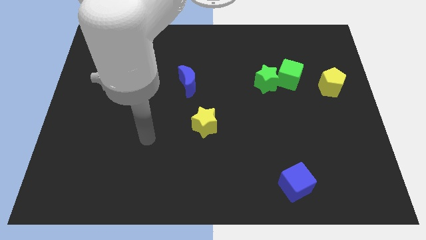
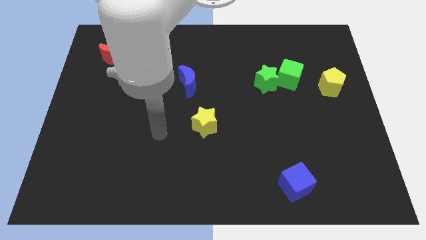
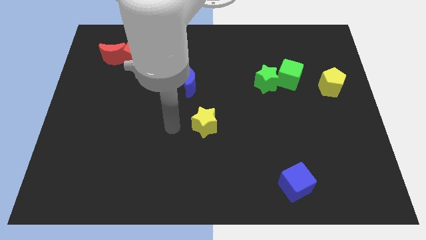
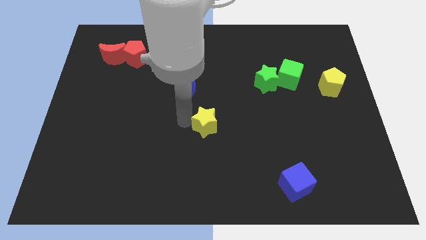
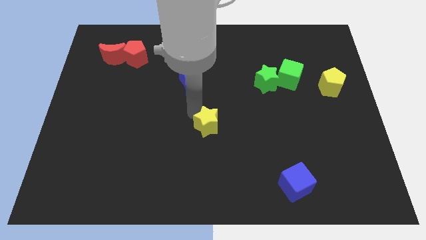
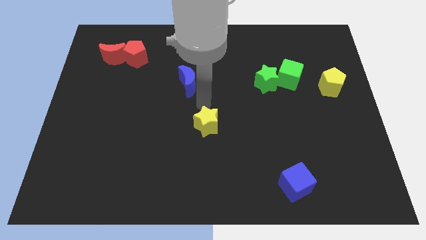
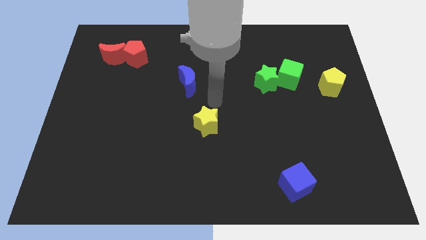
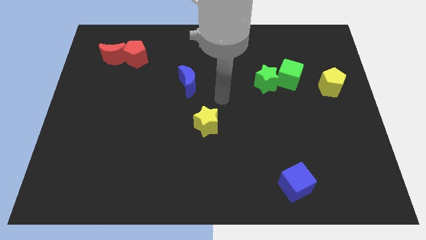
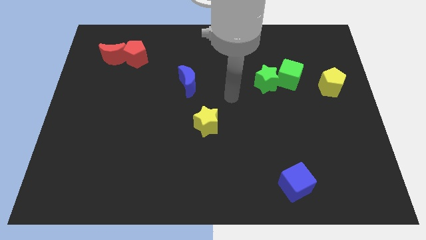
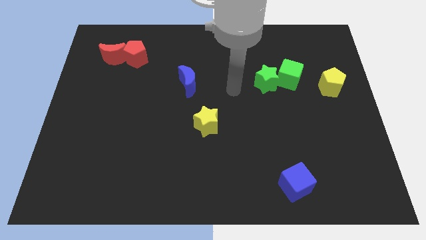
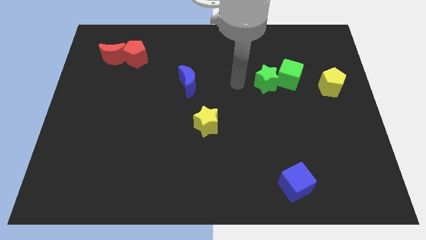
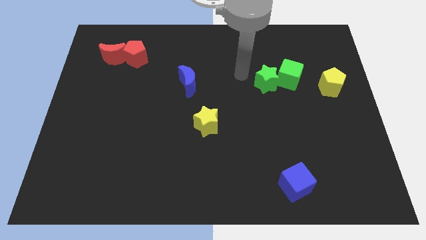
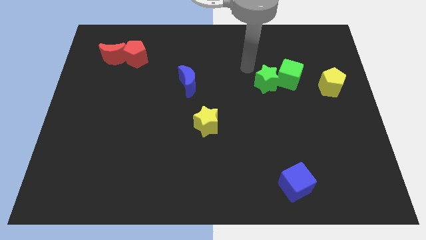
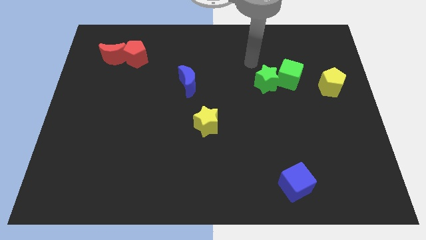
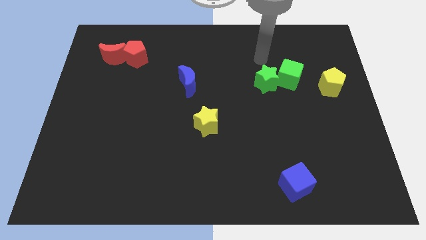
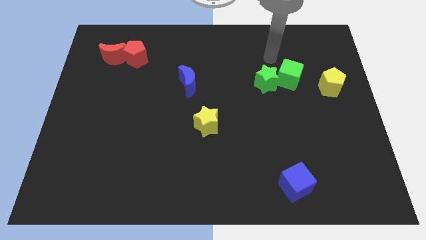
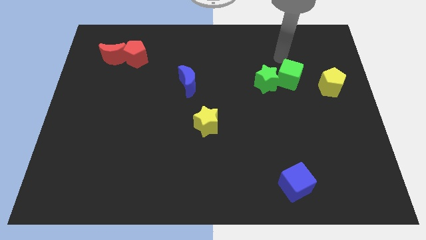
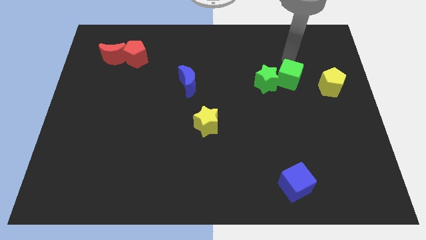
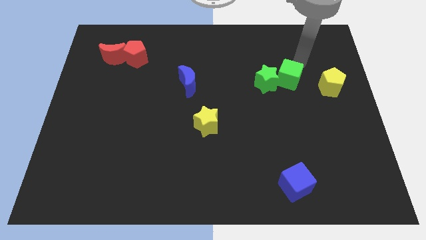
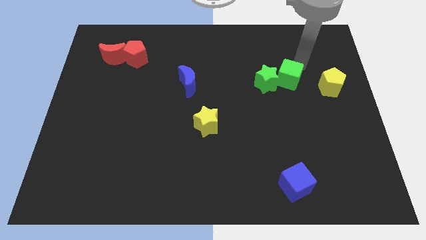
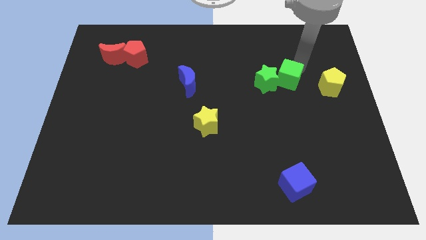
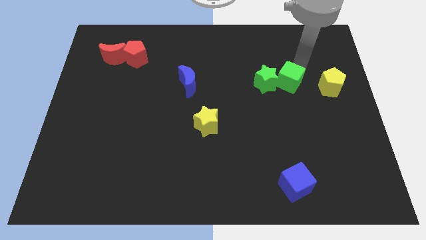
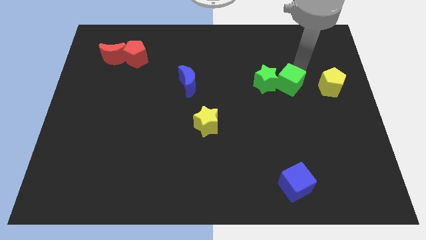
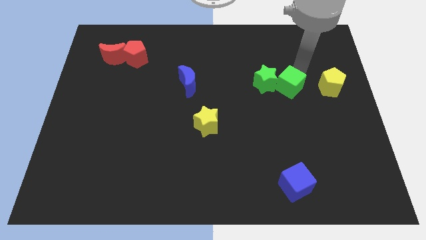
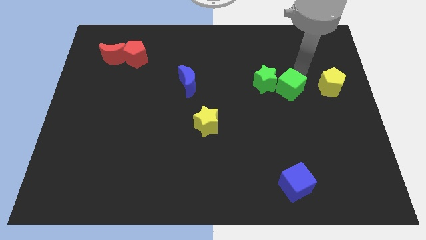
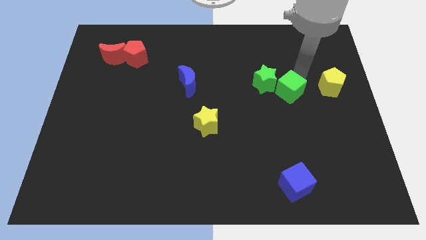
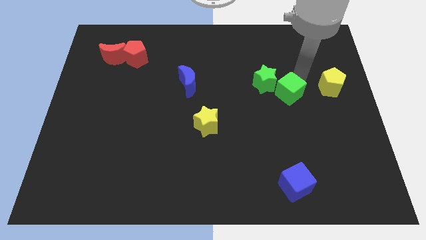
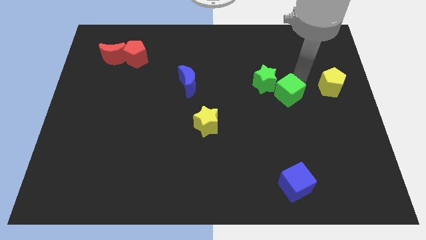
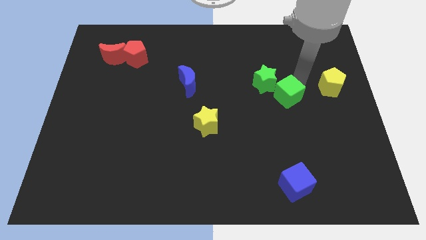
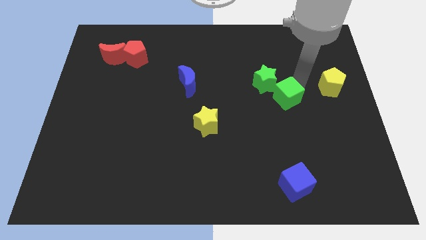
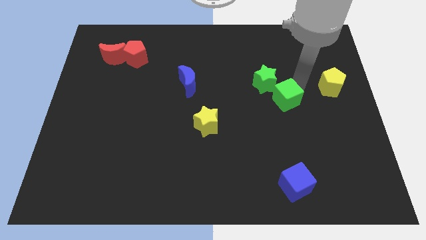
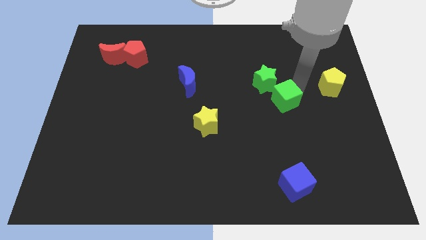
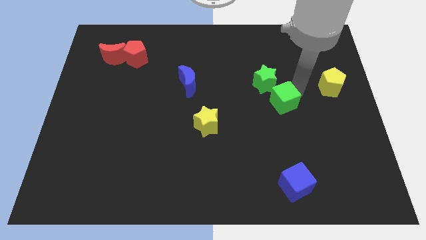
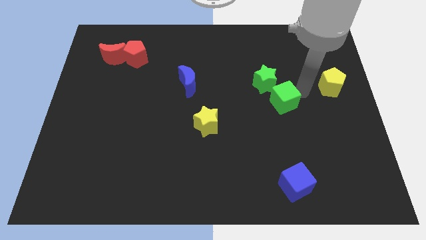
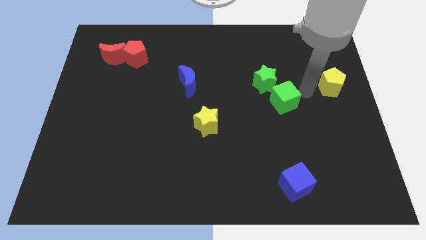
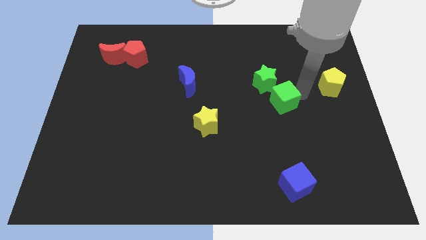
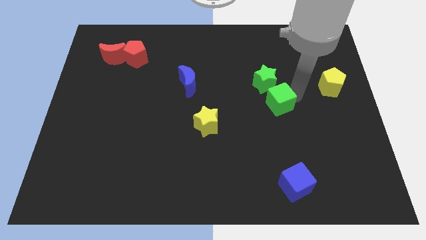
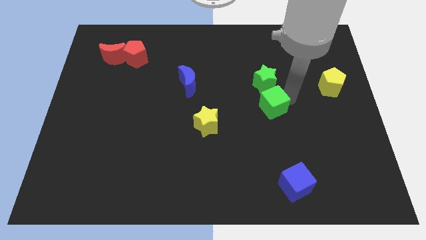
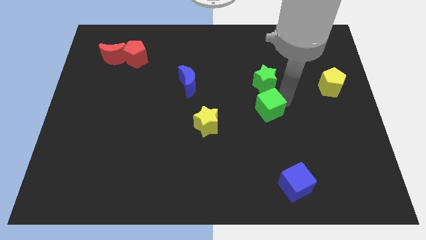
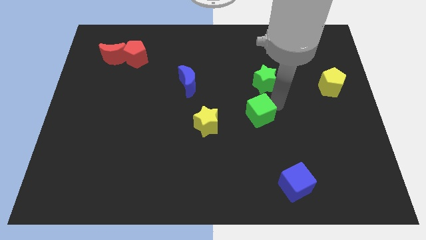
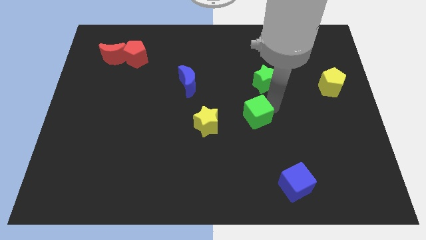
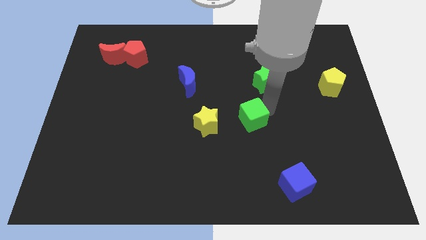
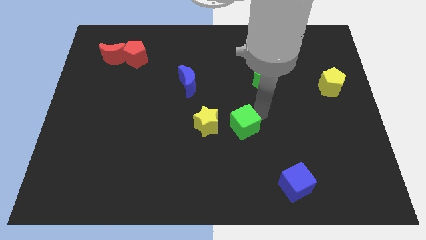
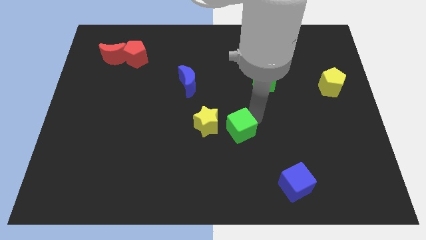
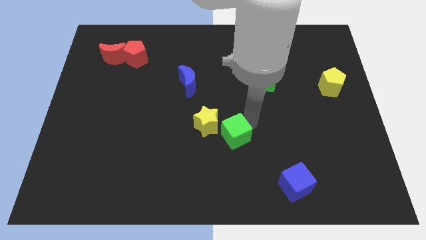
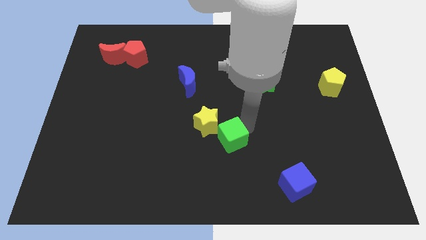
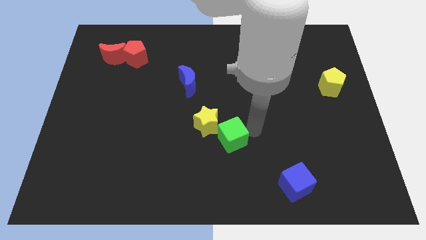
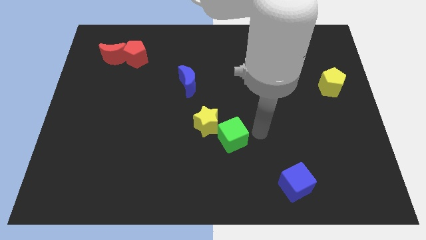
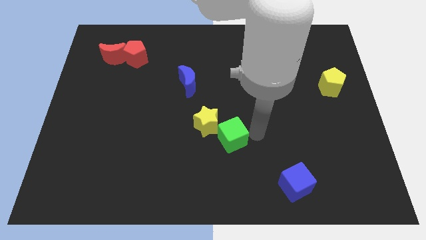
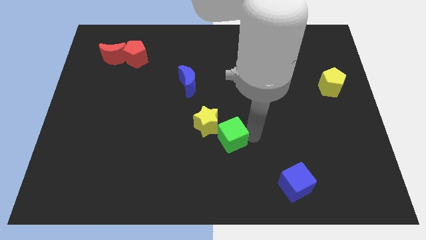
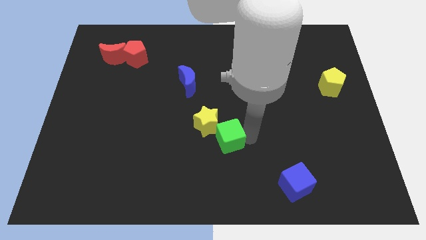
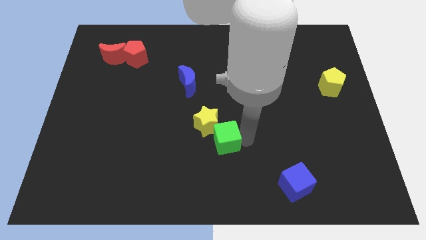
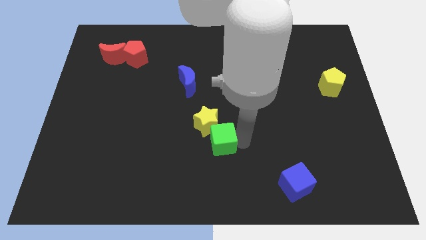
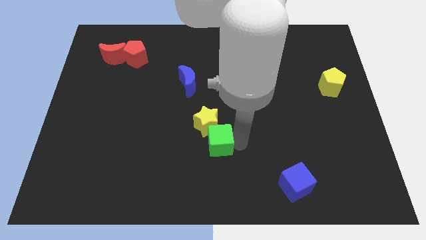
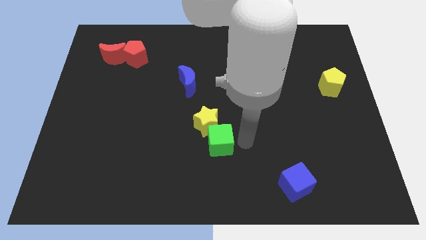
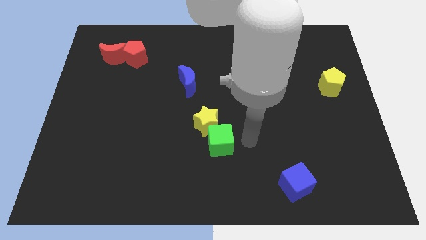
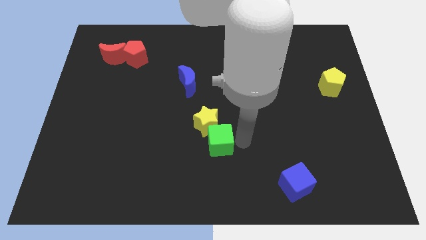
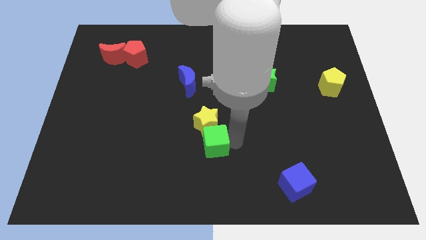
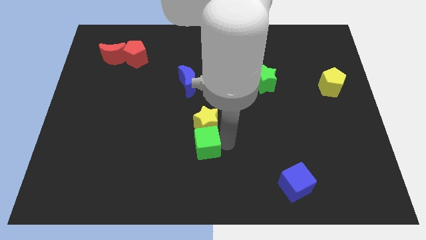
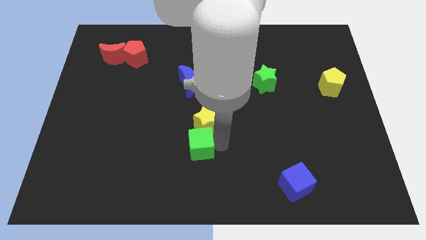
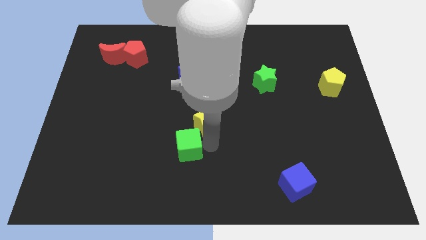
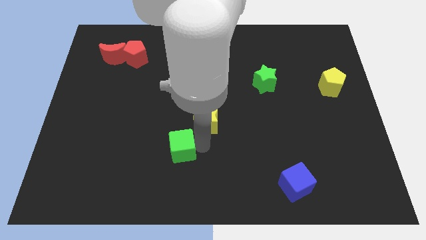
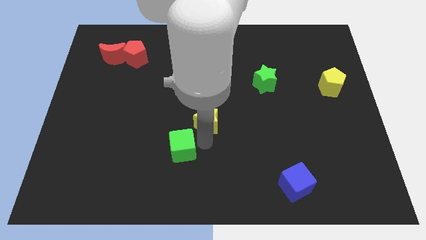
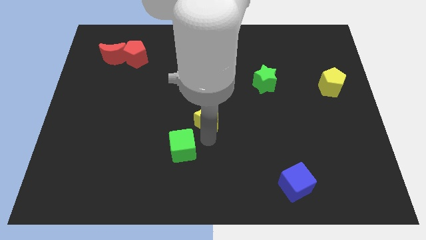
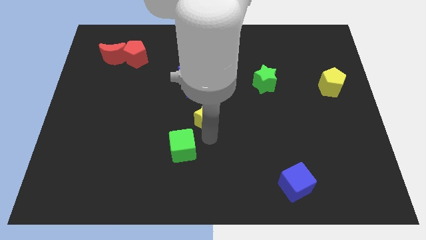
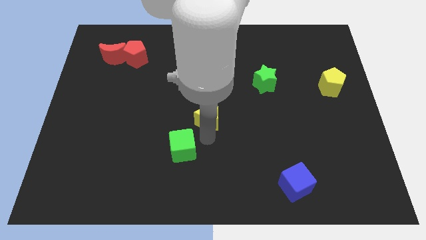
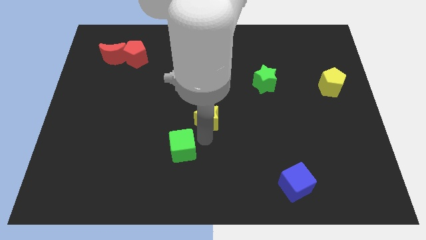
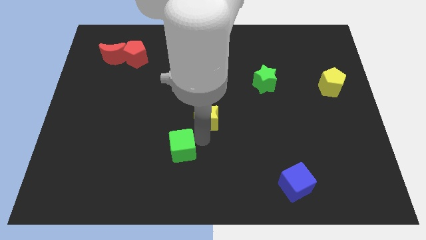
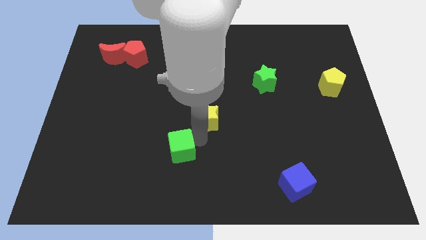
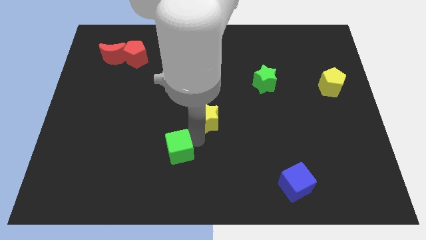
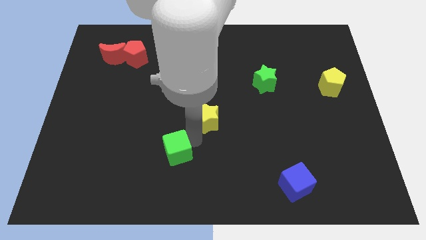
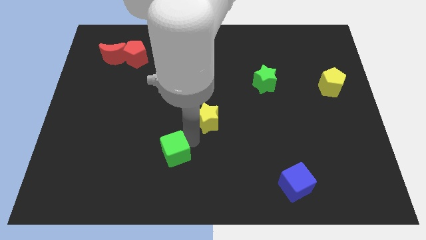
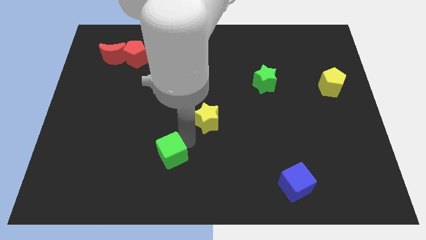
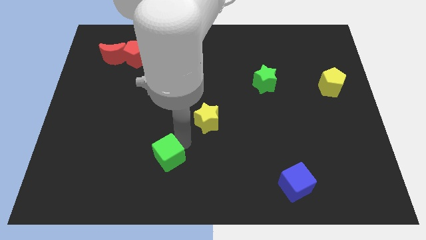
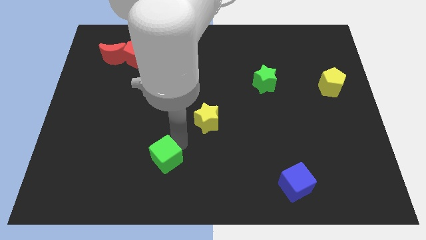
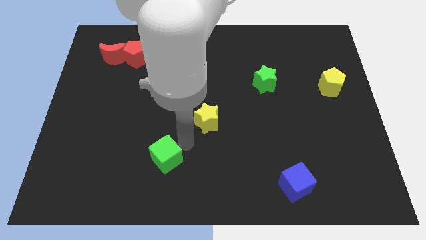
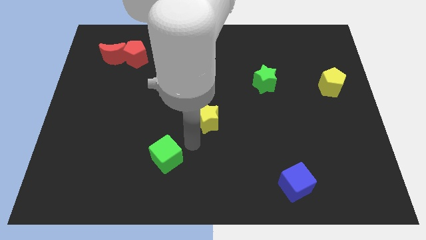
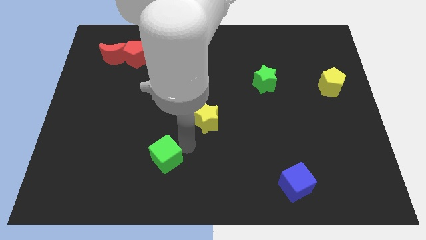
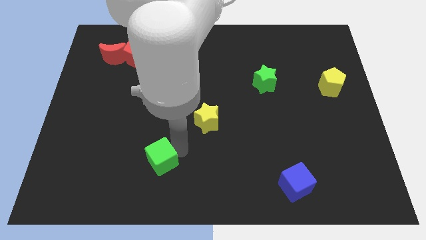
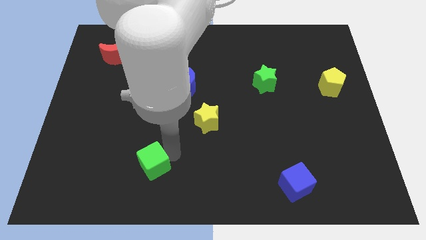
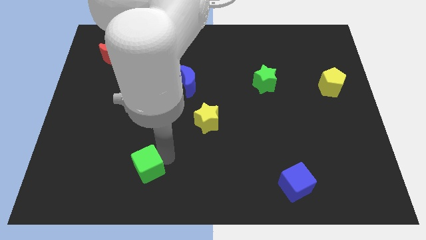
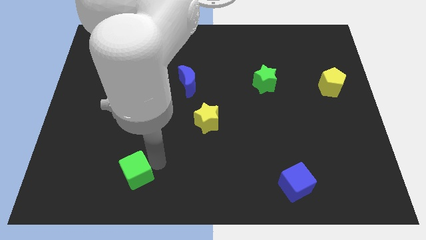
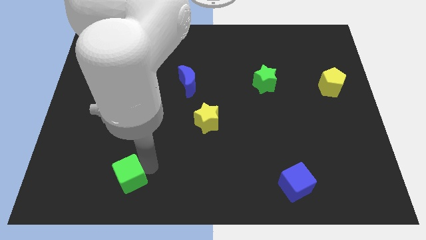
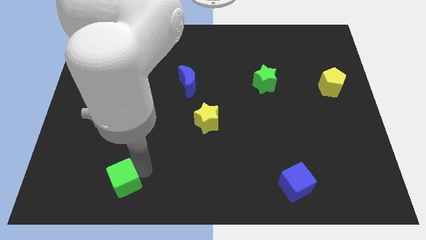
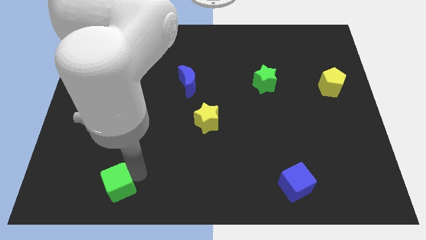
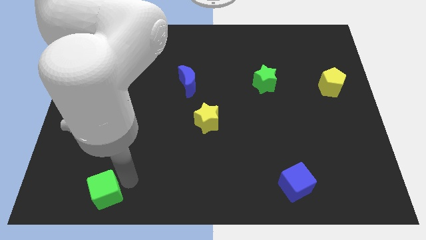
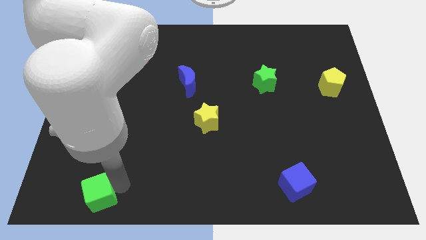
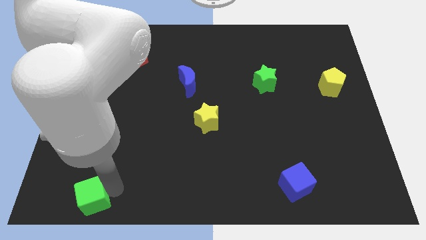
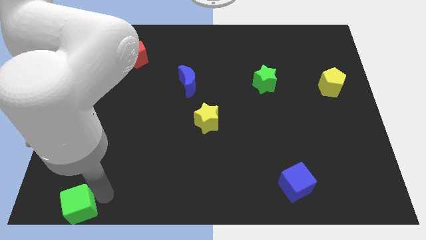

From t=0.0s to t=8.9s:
move the green cube to the lower left corner
